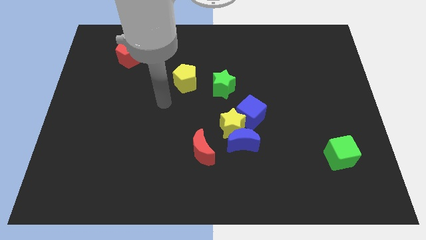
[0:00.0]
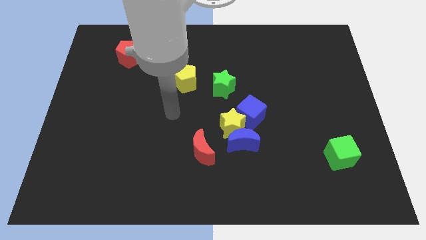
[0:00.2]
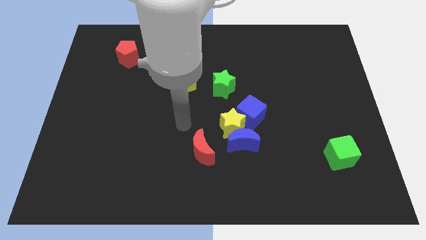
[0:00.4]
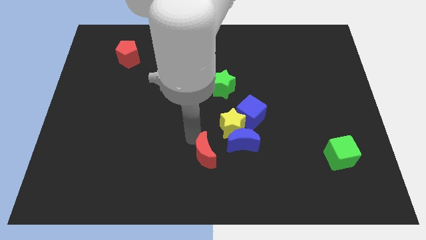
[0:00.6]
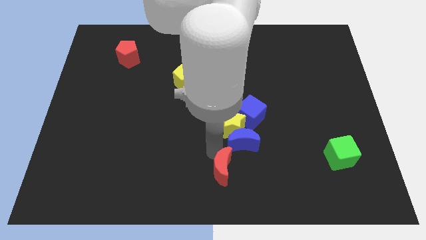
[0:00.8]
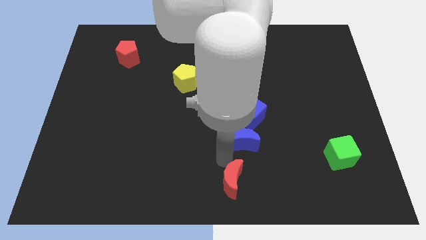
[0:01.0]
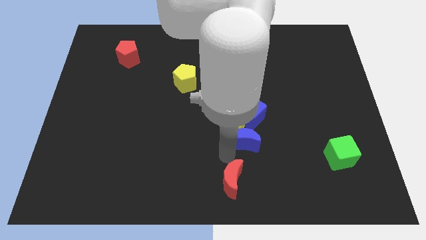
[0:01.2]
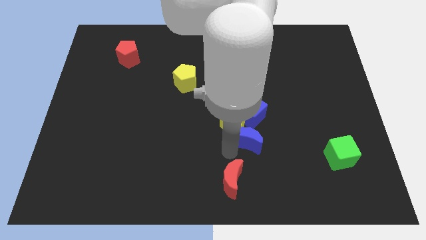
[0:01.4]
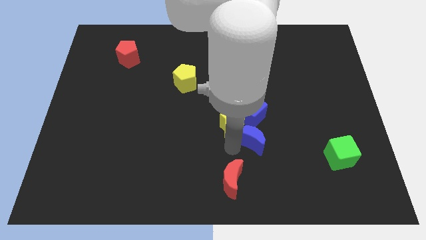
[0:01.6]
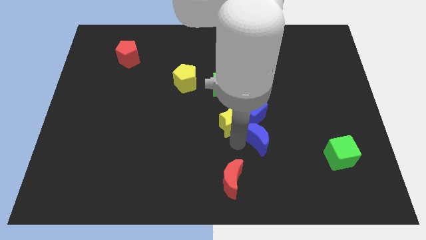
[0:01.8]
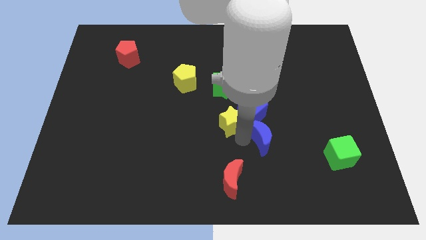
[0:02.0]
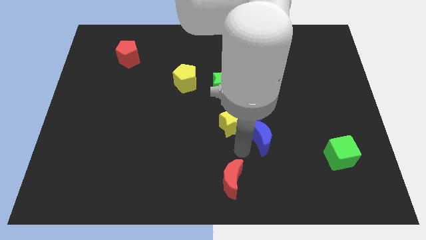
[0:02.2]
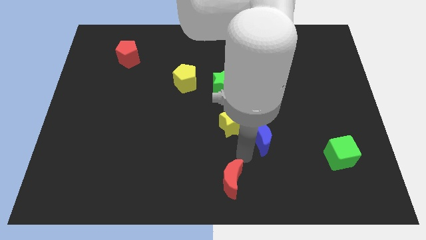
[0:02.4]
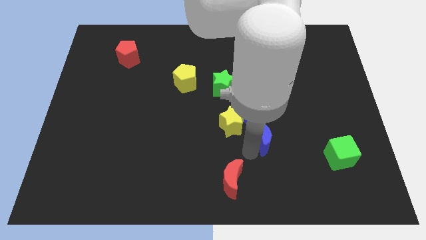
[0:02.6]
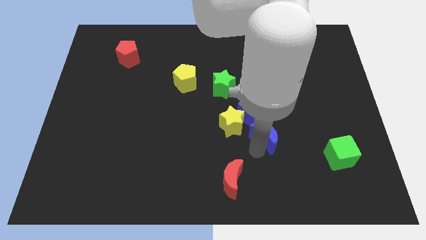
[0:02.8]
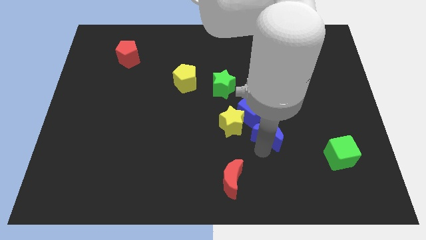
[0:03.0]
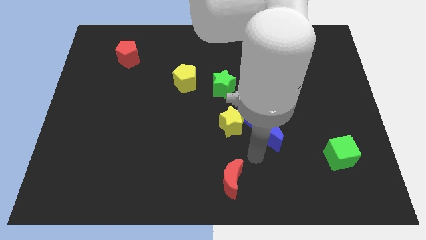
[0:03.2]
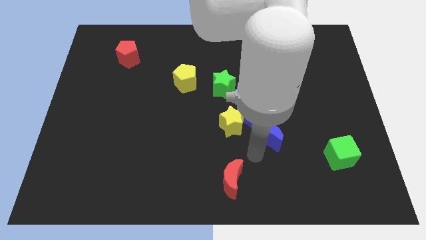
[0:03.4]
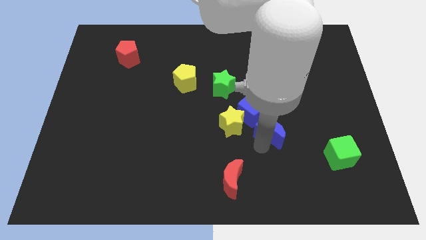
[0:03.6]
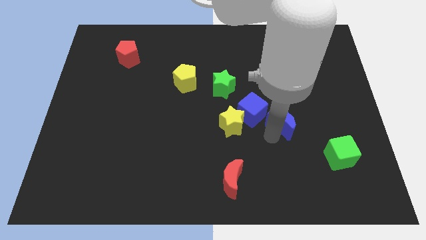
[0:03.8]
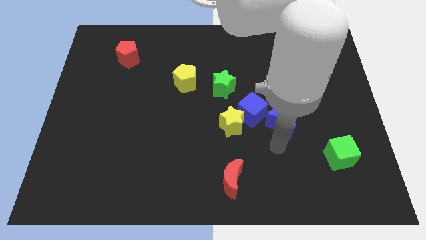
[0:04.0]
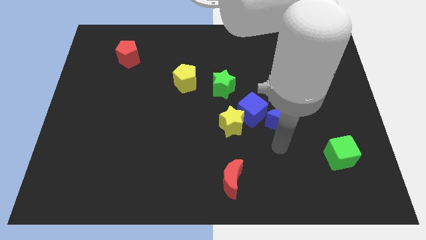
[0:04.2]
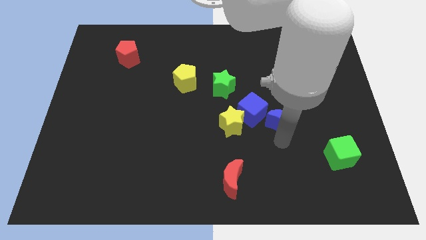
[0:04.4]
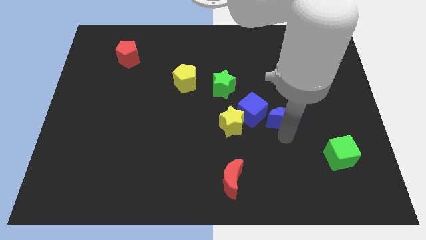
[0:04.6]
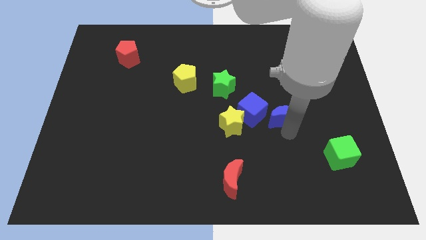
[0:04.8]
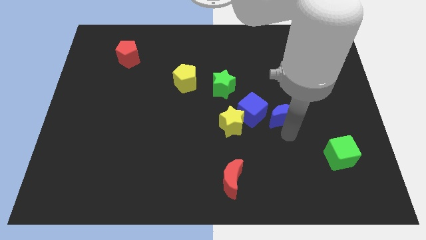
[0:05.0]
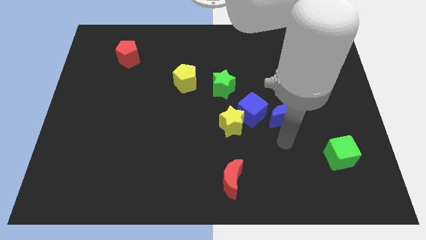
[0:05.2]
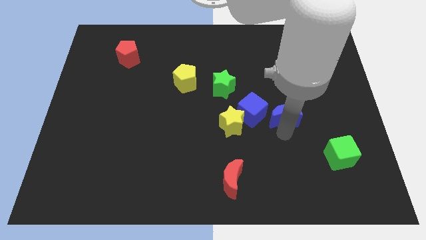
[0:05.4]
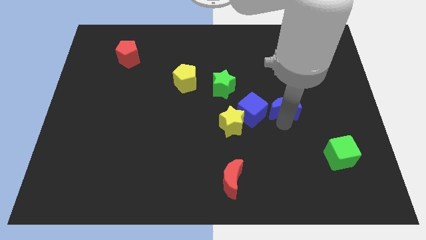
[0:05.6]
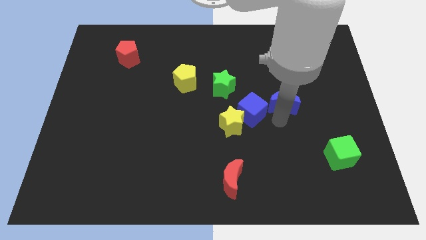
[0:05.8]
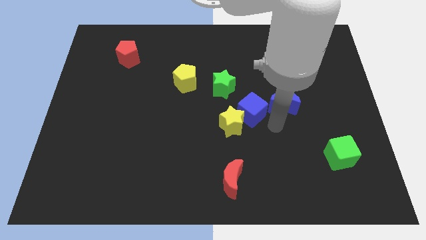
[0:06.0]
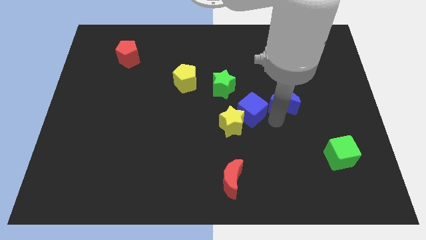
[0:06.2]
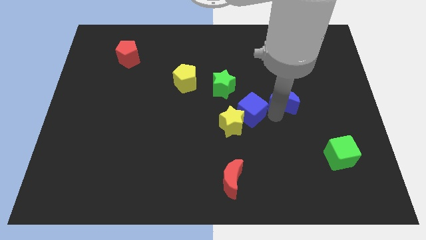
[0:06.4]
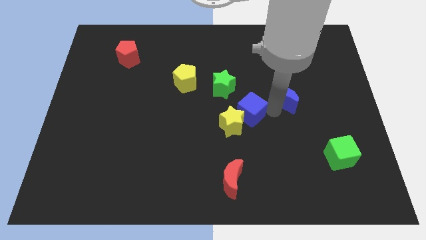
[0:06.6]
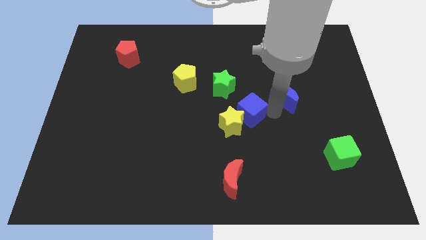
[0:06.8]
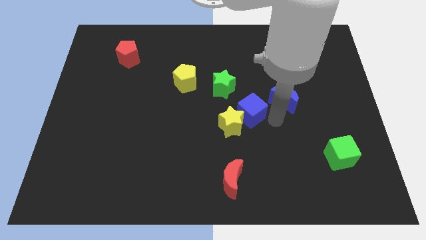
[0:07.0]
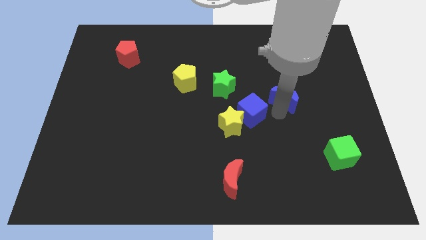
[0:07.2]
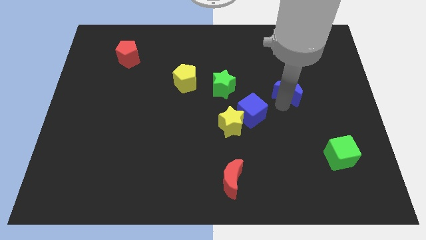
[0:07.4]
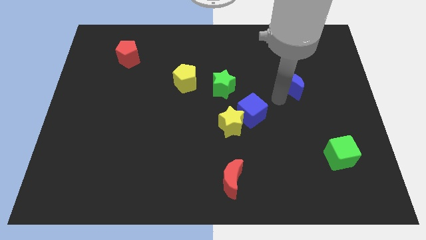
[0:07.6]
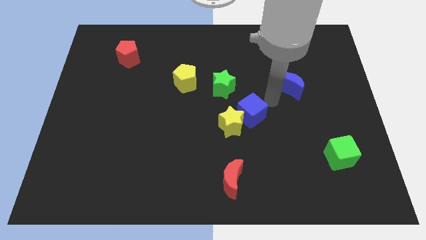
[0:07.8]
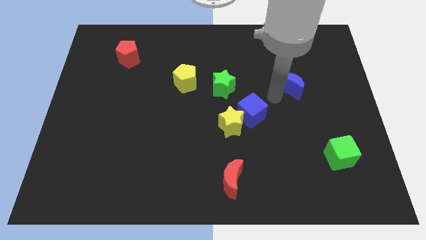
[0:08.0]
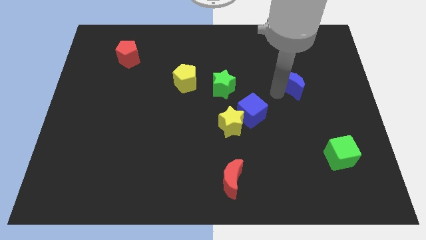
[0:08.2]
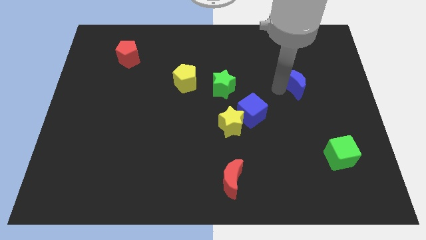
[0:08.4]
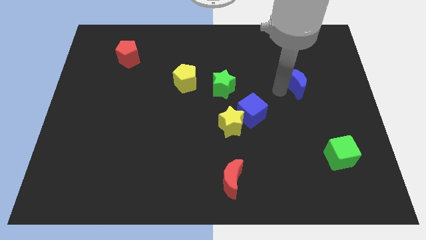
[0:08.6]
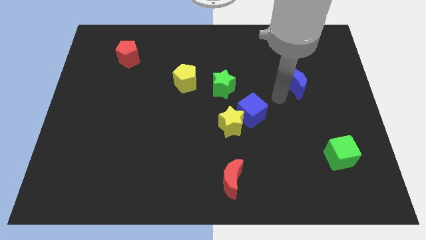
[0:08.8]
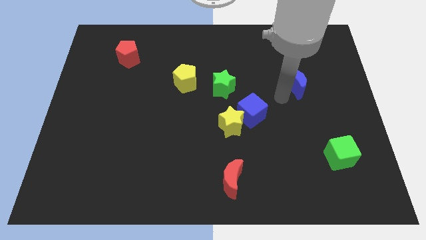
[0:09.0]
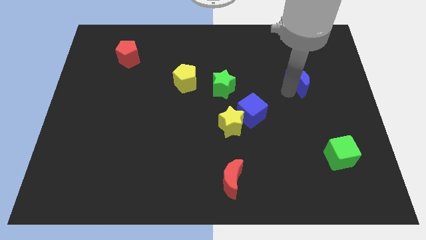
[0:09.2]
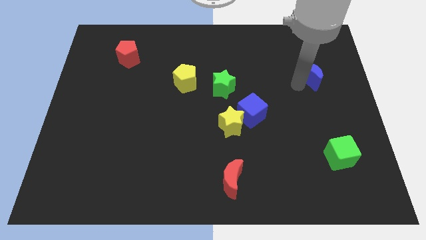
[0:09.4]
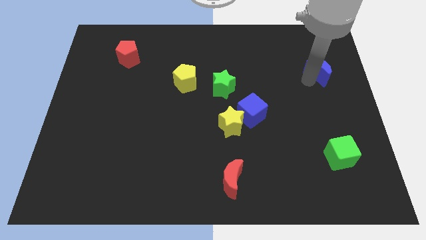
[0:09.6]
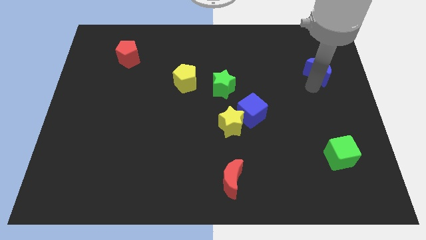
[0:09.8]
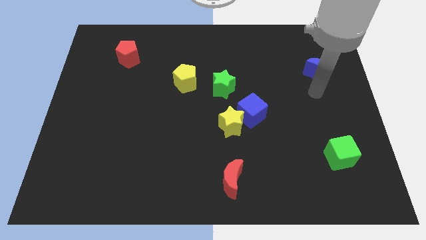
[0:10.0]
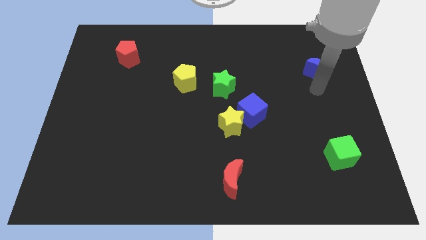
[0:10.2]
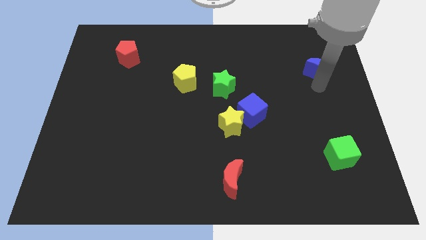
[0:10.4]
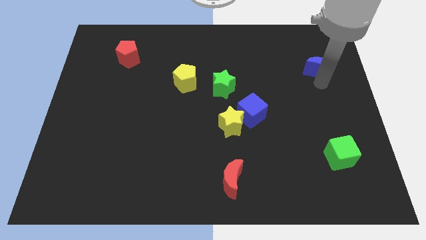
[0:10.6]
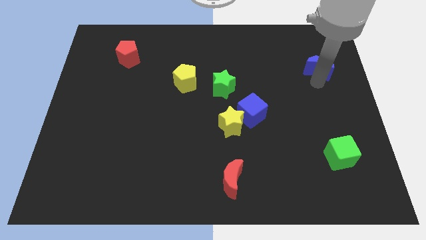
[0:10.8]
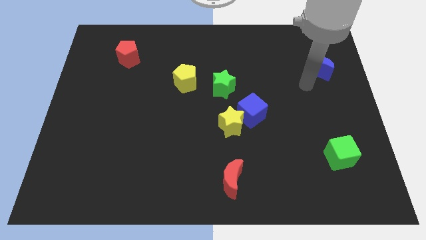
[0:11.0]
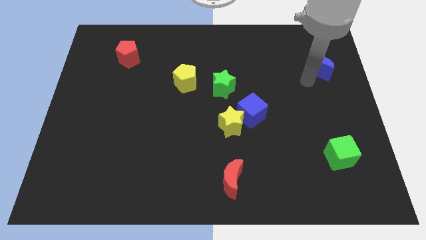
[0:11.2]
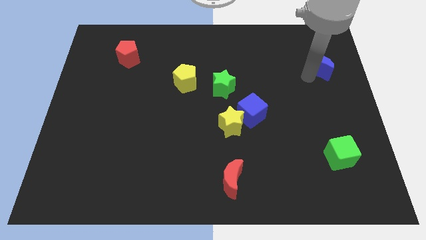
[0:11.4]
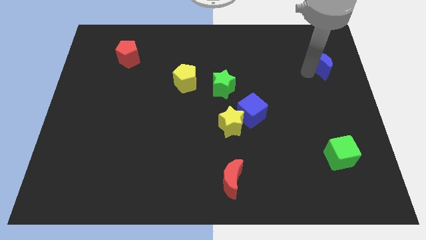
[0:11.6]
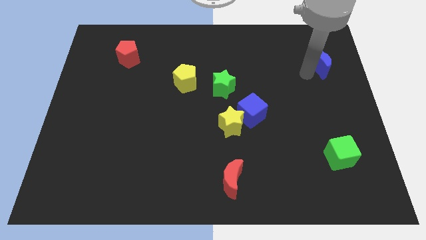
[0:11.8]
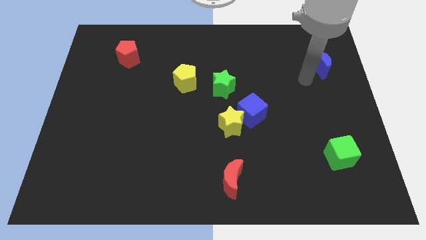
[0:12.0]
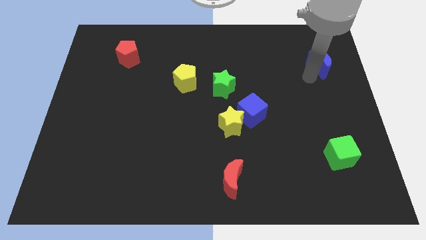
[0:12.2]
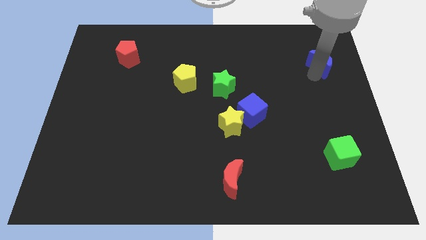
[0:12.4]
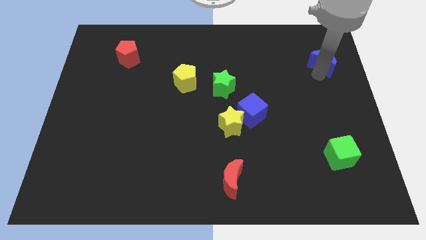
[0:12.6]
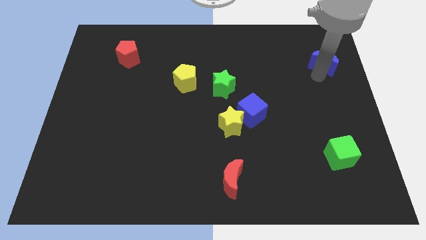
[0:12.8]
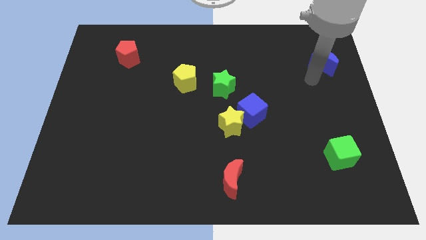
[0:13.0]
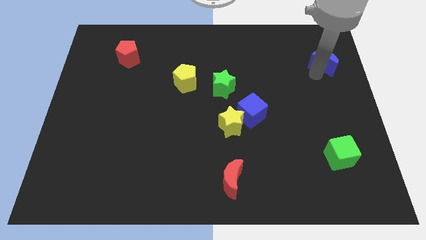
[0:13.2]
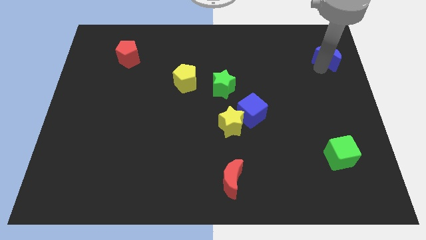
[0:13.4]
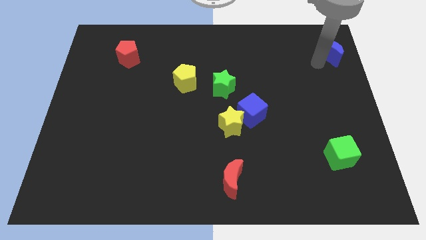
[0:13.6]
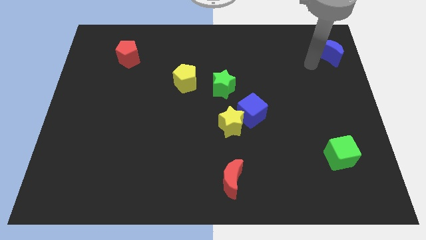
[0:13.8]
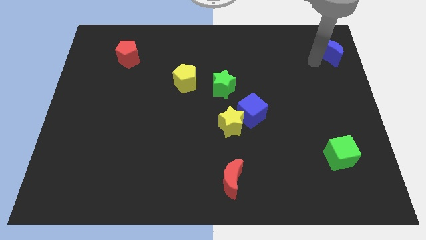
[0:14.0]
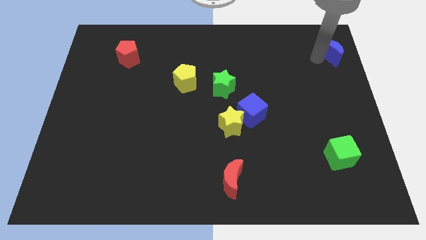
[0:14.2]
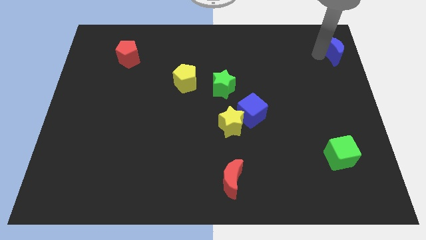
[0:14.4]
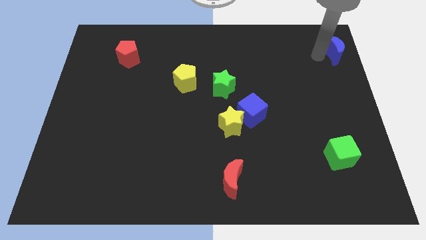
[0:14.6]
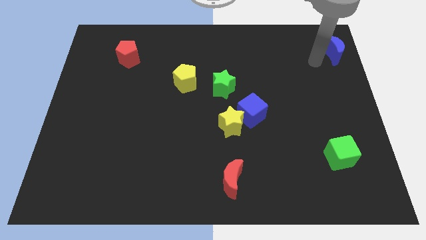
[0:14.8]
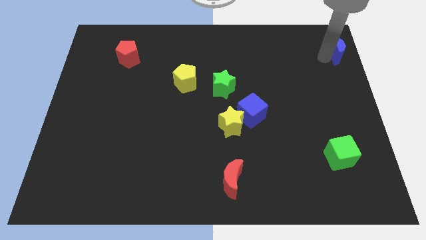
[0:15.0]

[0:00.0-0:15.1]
push the blue moon to the top right corner
